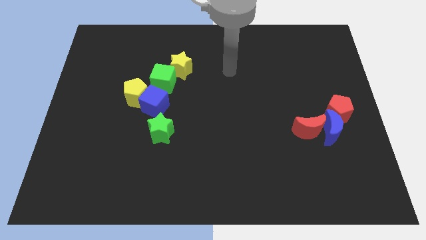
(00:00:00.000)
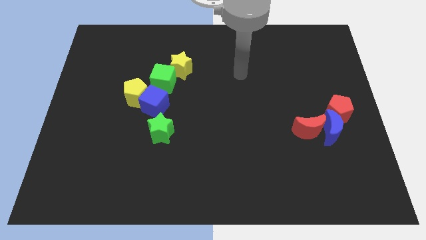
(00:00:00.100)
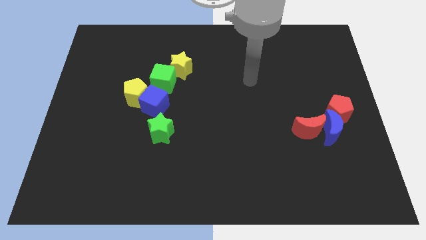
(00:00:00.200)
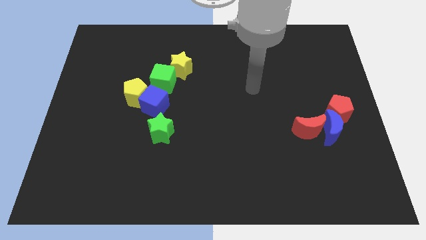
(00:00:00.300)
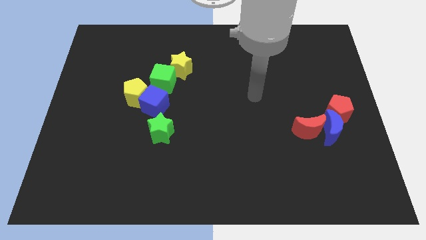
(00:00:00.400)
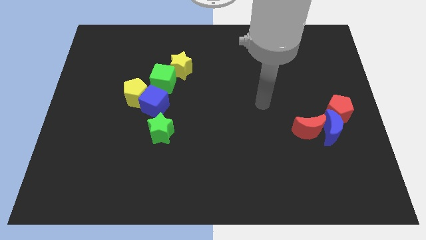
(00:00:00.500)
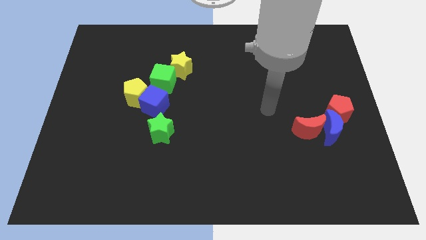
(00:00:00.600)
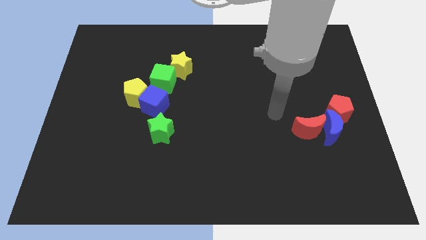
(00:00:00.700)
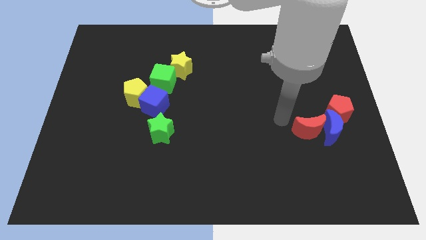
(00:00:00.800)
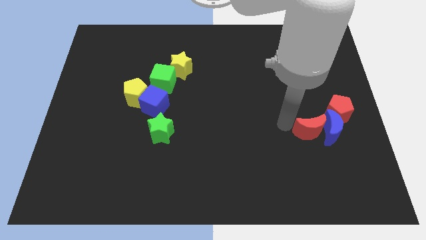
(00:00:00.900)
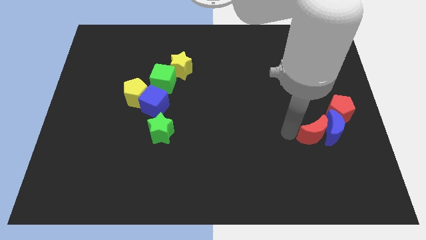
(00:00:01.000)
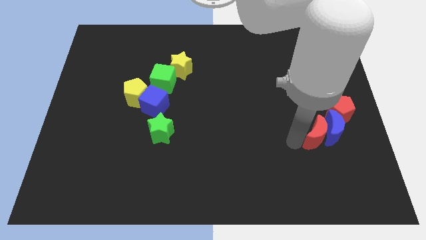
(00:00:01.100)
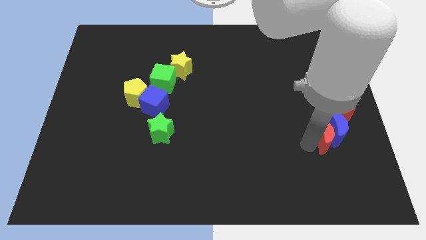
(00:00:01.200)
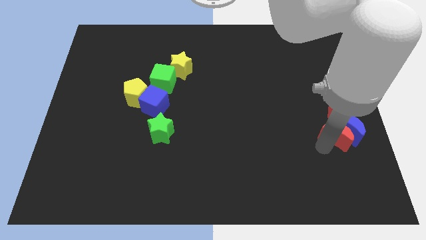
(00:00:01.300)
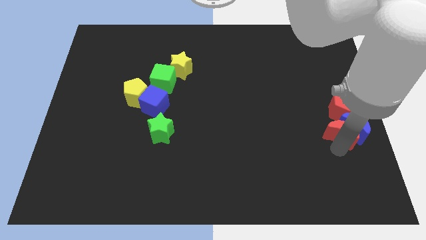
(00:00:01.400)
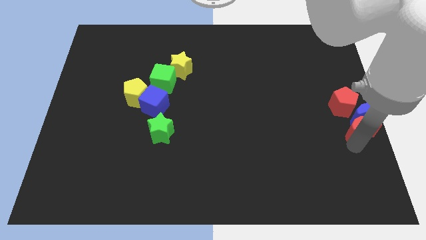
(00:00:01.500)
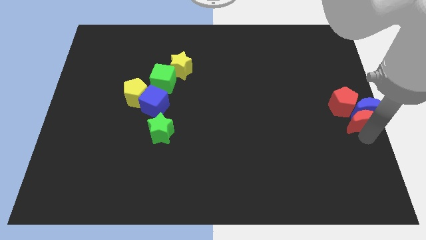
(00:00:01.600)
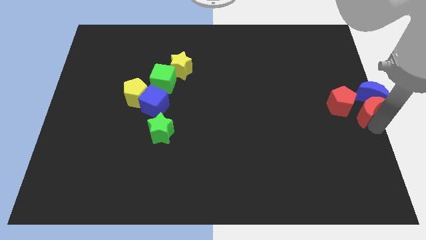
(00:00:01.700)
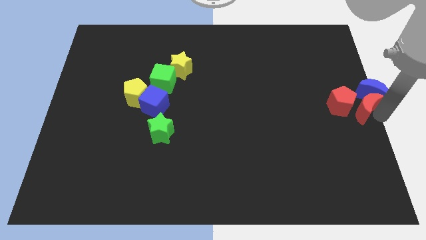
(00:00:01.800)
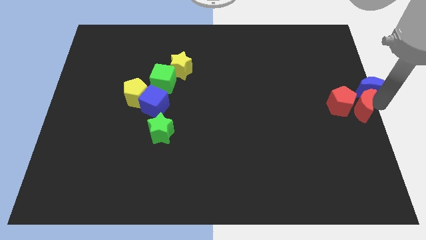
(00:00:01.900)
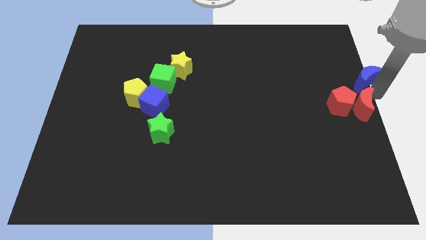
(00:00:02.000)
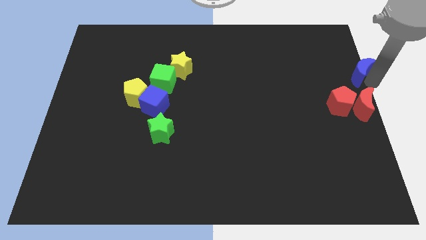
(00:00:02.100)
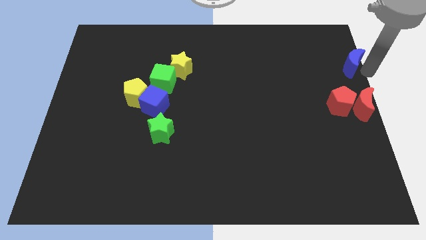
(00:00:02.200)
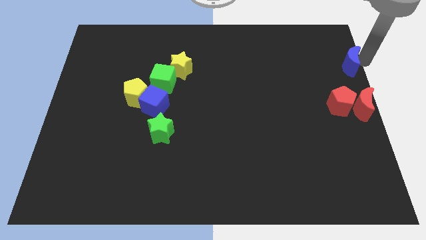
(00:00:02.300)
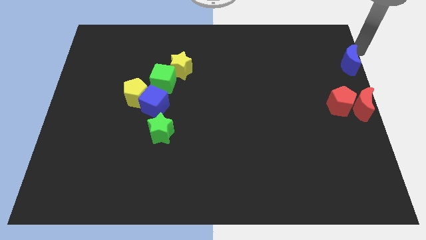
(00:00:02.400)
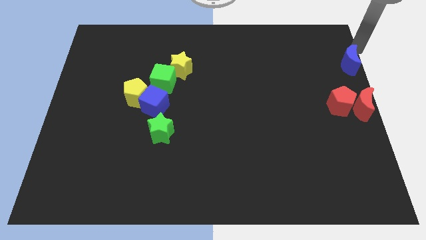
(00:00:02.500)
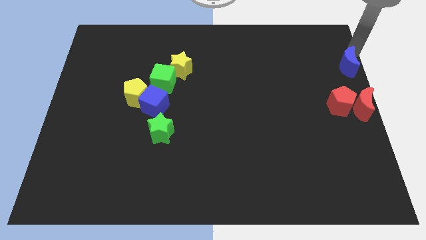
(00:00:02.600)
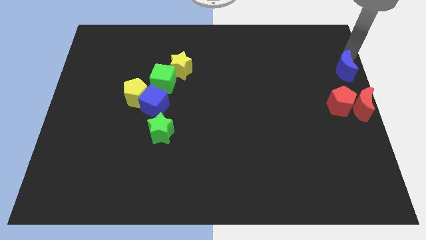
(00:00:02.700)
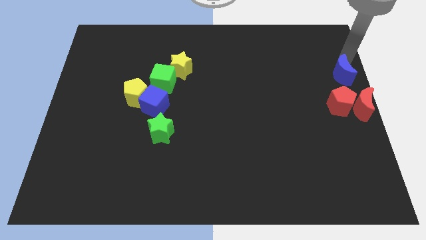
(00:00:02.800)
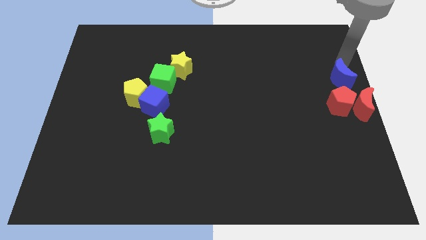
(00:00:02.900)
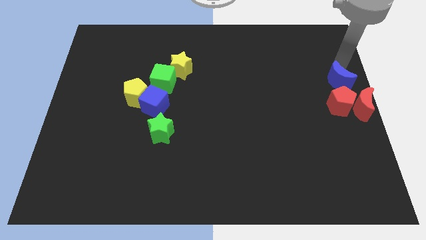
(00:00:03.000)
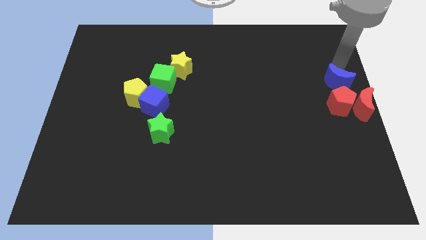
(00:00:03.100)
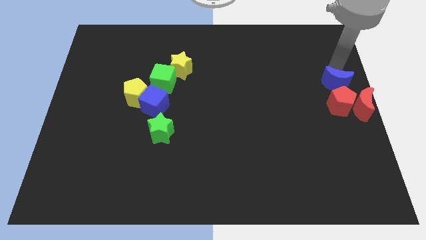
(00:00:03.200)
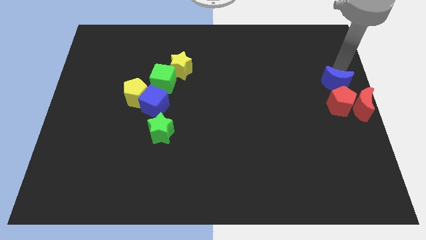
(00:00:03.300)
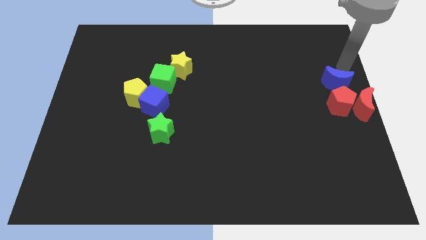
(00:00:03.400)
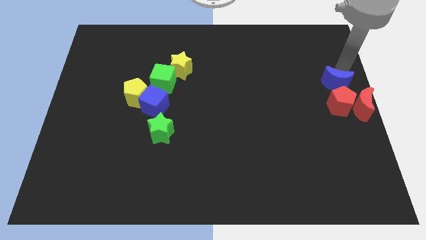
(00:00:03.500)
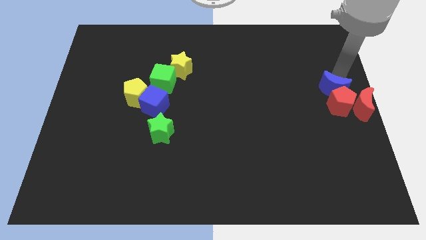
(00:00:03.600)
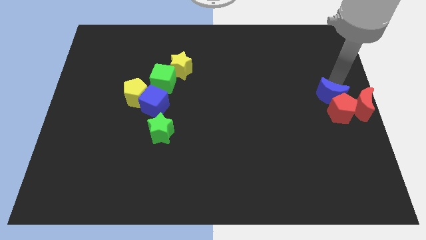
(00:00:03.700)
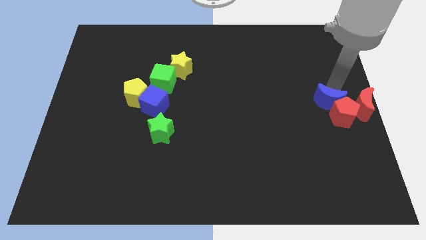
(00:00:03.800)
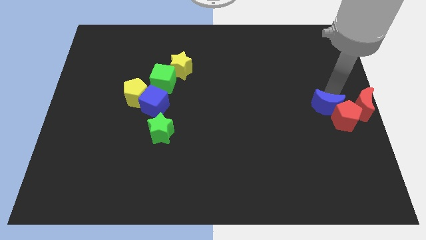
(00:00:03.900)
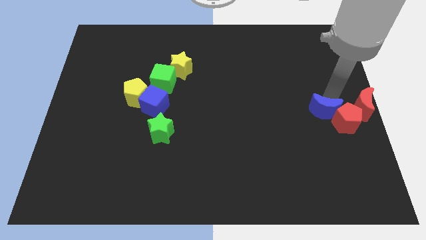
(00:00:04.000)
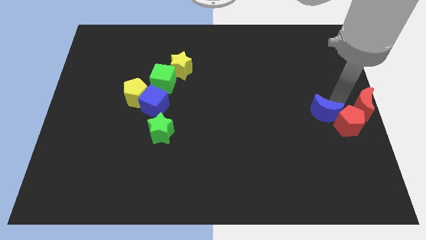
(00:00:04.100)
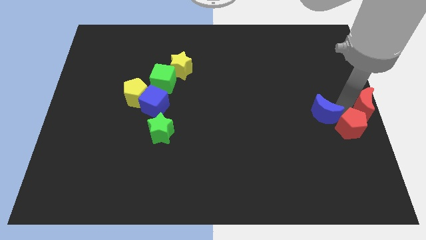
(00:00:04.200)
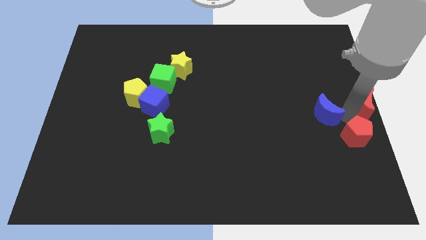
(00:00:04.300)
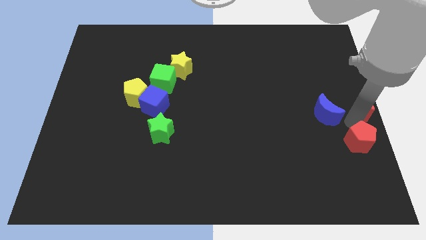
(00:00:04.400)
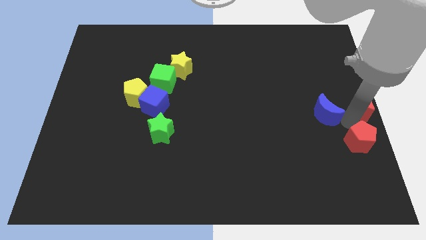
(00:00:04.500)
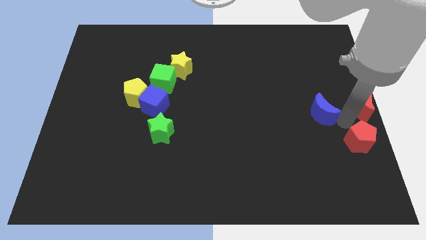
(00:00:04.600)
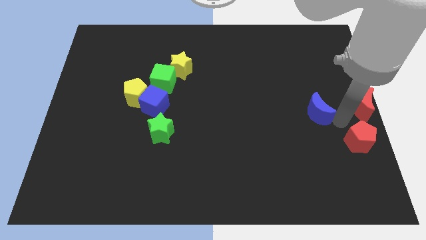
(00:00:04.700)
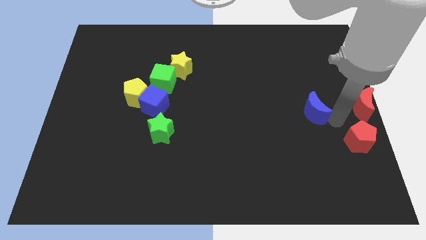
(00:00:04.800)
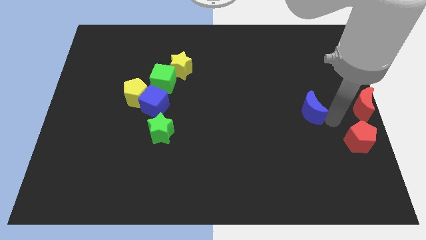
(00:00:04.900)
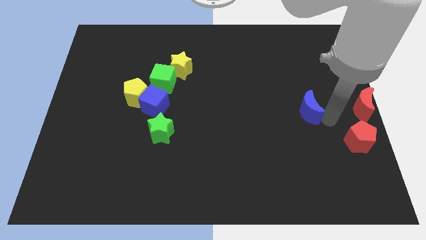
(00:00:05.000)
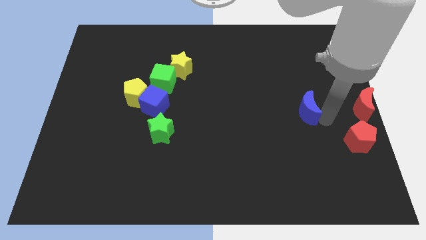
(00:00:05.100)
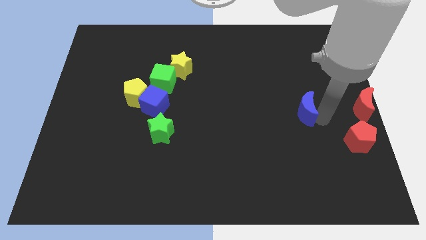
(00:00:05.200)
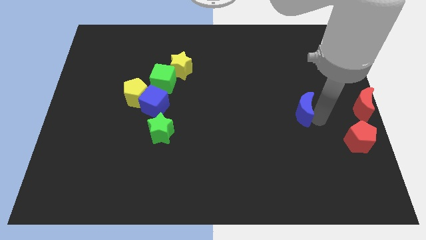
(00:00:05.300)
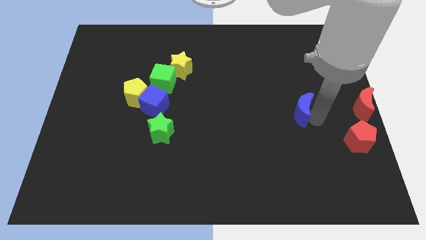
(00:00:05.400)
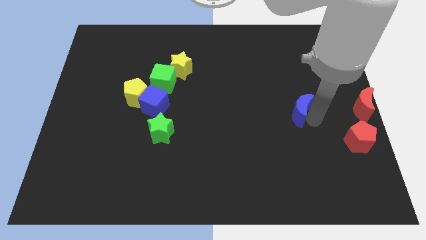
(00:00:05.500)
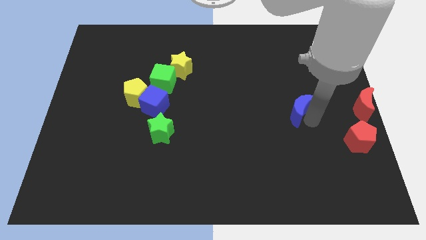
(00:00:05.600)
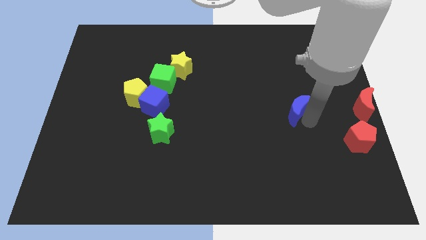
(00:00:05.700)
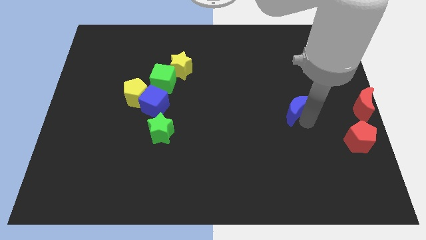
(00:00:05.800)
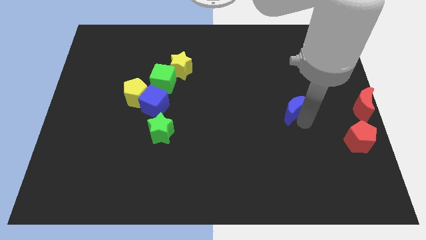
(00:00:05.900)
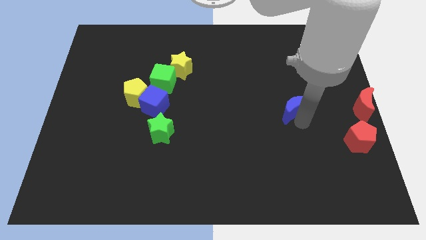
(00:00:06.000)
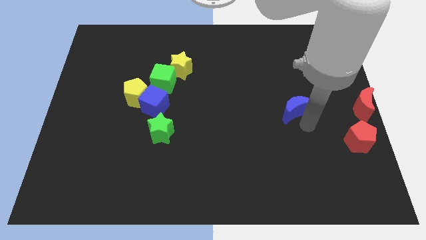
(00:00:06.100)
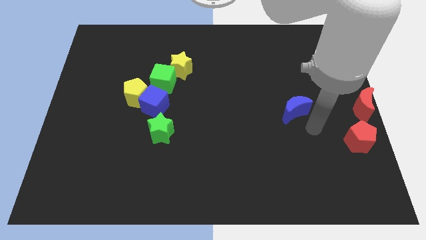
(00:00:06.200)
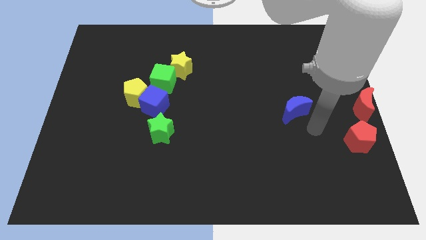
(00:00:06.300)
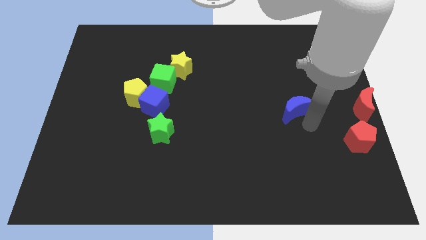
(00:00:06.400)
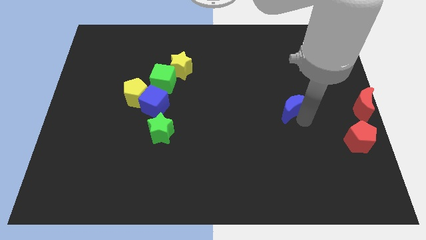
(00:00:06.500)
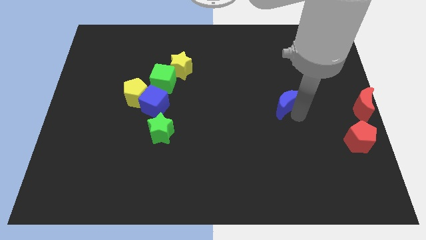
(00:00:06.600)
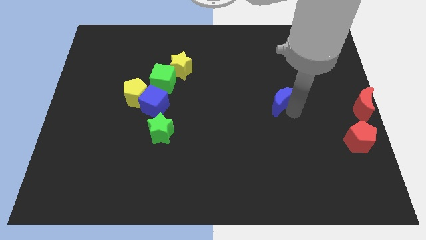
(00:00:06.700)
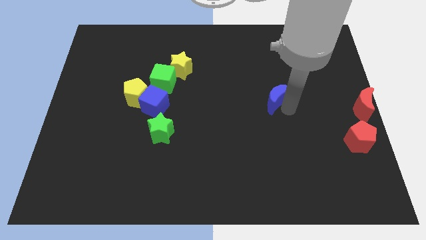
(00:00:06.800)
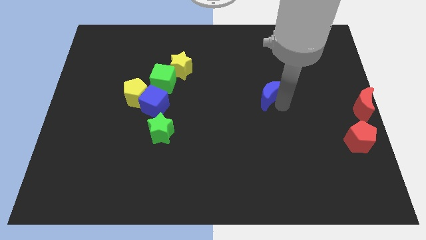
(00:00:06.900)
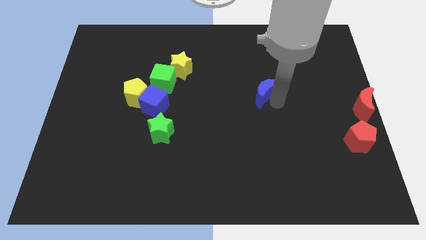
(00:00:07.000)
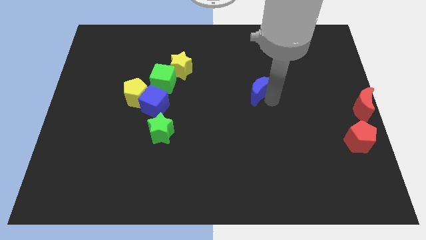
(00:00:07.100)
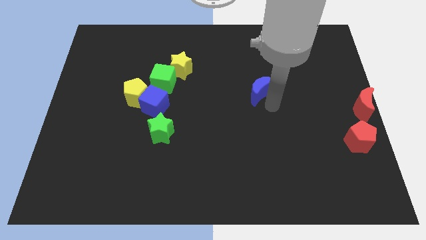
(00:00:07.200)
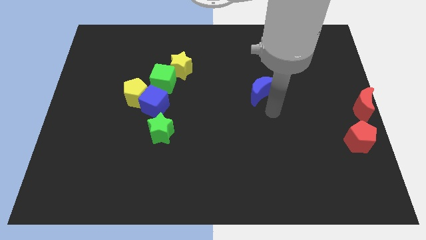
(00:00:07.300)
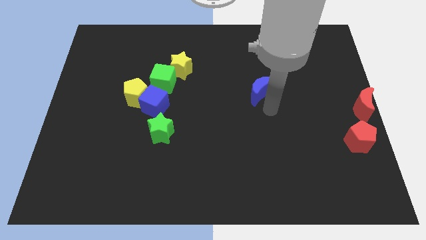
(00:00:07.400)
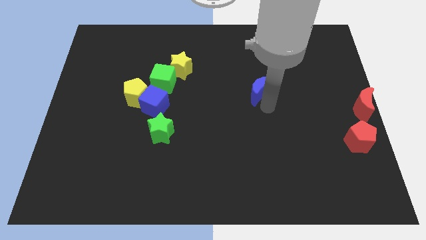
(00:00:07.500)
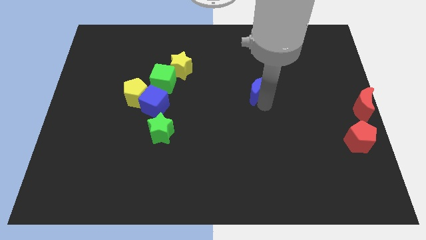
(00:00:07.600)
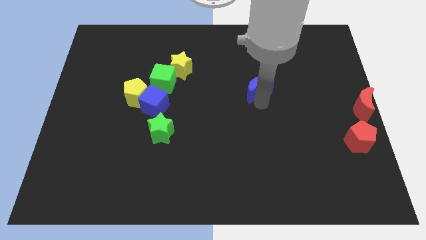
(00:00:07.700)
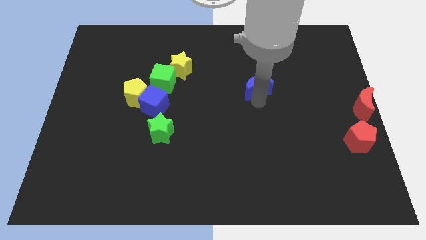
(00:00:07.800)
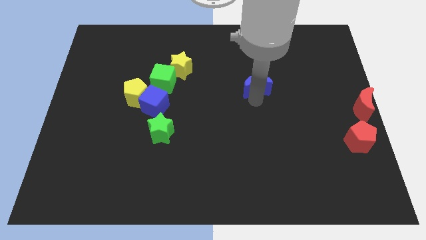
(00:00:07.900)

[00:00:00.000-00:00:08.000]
slide the blue moon up and then left
